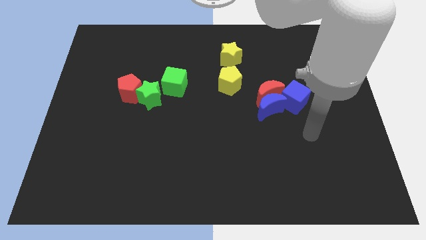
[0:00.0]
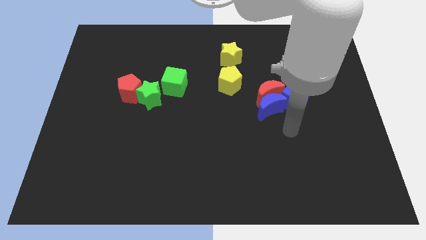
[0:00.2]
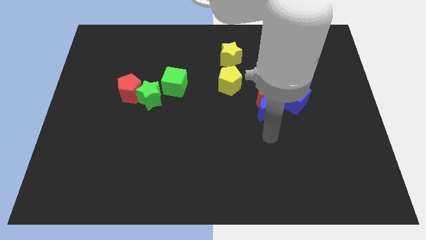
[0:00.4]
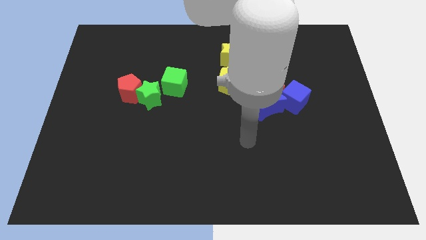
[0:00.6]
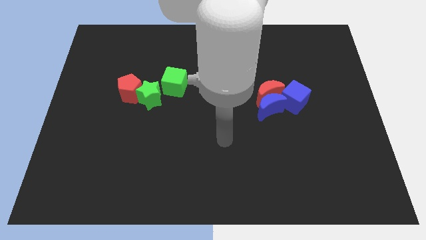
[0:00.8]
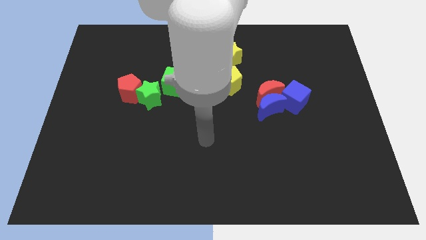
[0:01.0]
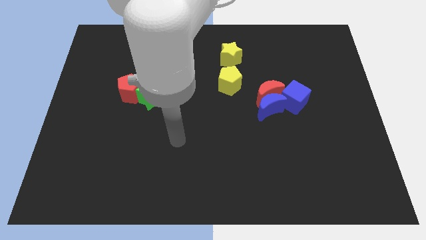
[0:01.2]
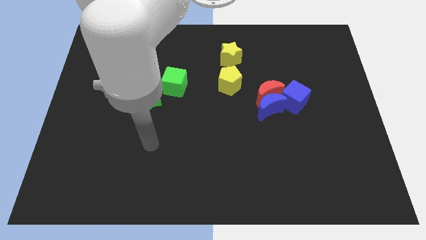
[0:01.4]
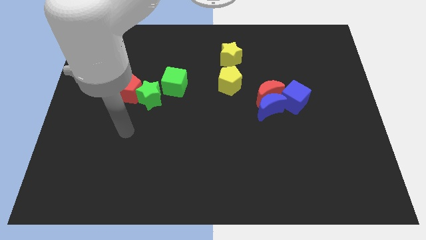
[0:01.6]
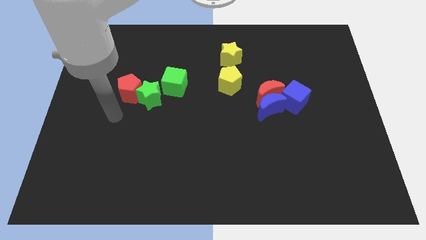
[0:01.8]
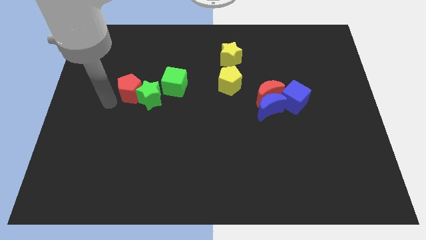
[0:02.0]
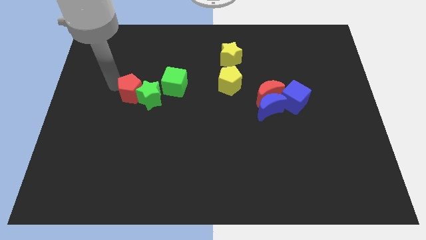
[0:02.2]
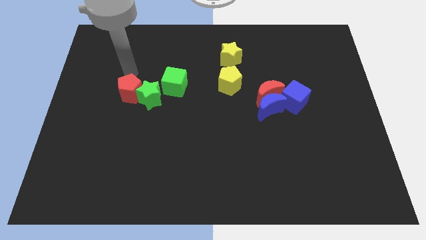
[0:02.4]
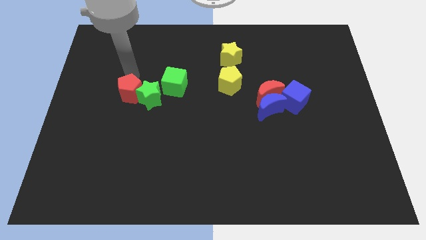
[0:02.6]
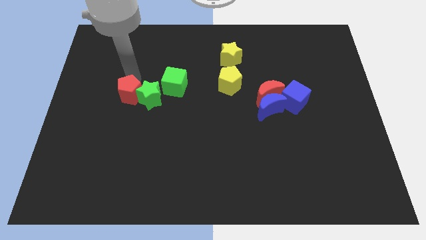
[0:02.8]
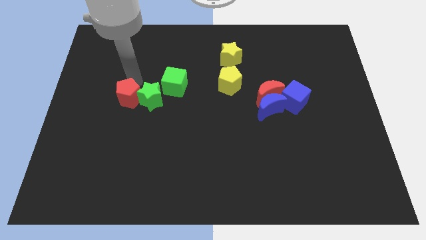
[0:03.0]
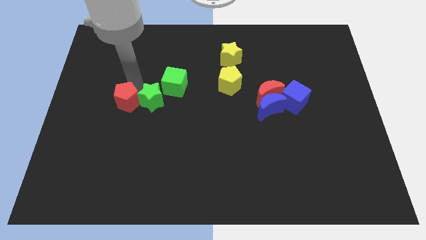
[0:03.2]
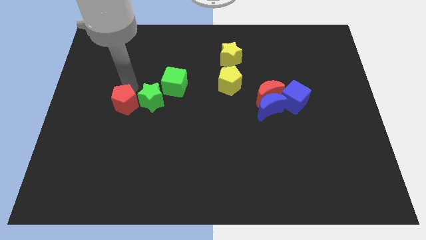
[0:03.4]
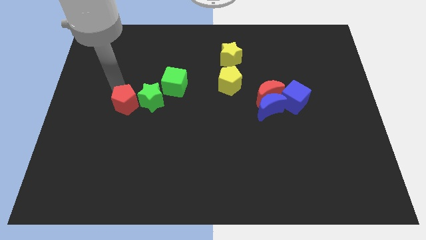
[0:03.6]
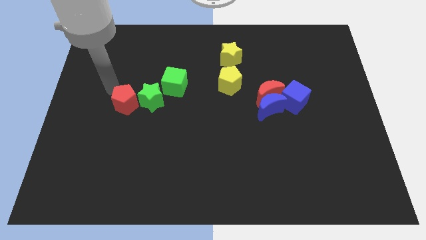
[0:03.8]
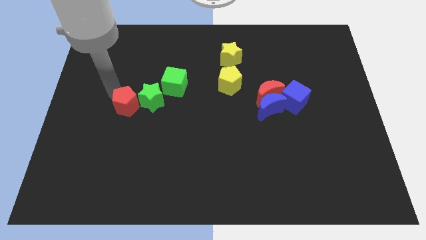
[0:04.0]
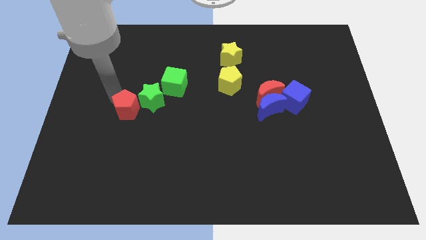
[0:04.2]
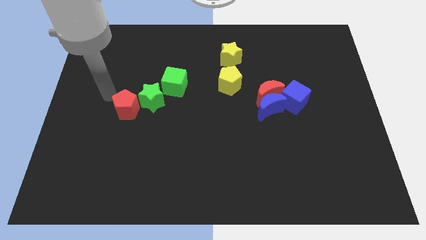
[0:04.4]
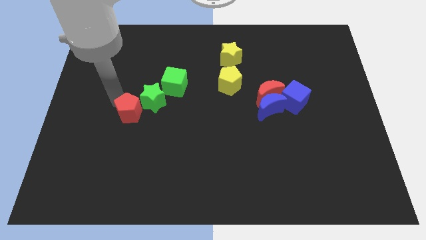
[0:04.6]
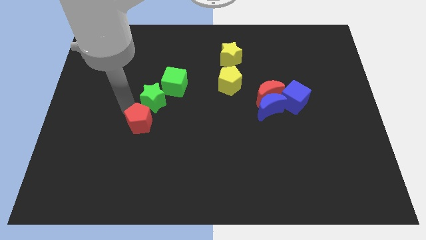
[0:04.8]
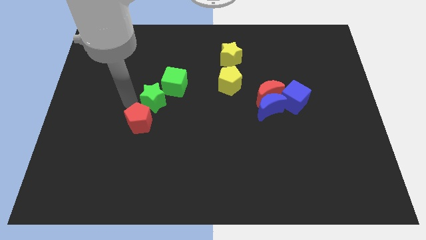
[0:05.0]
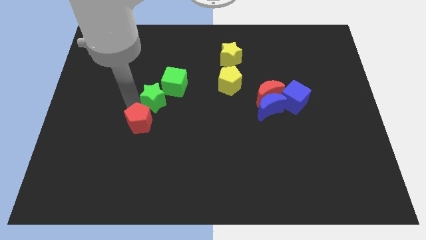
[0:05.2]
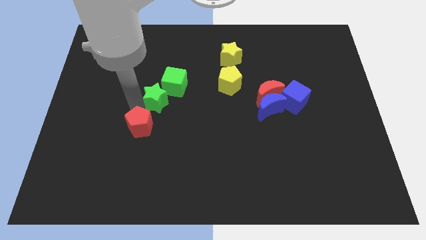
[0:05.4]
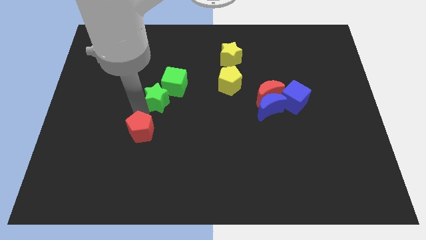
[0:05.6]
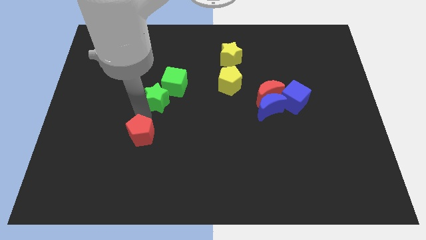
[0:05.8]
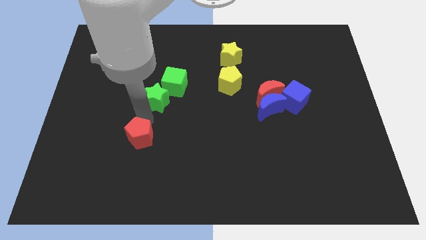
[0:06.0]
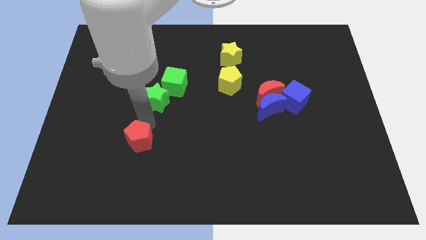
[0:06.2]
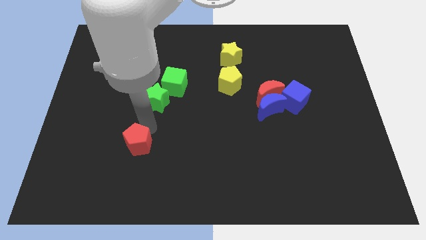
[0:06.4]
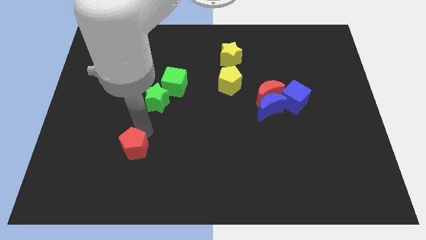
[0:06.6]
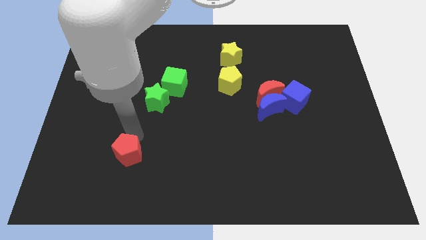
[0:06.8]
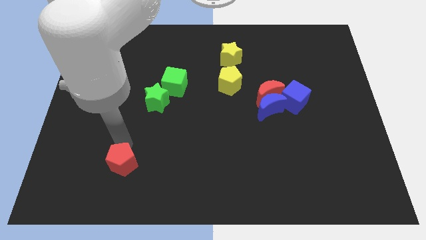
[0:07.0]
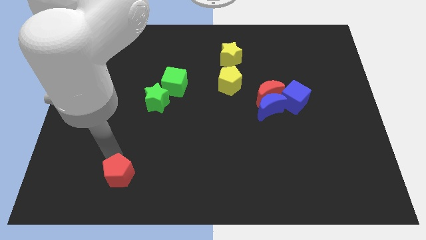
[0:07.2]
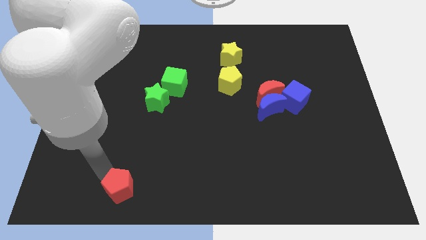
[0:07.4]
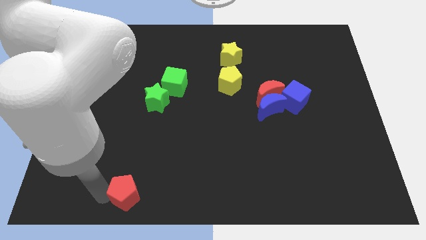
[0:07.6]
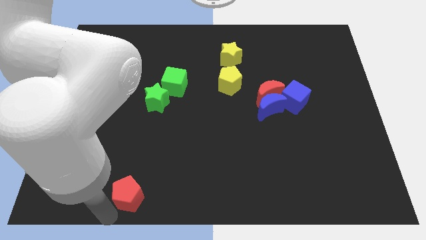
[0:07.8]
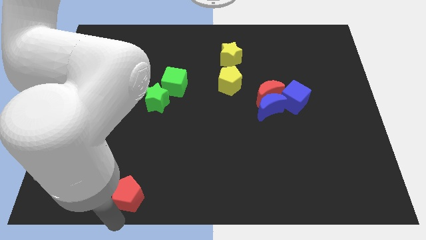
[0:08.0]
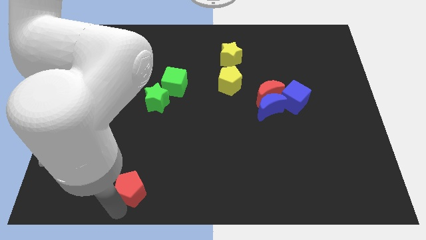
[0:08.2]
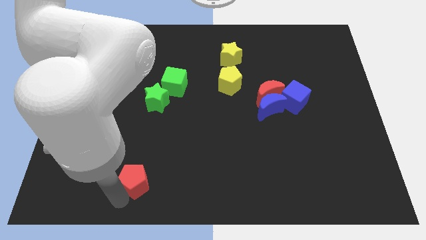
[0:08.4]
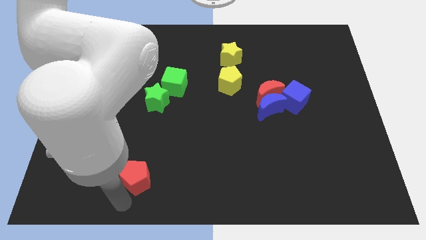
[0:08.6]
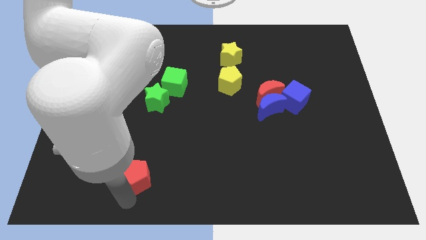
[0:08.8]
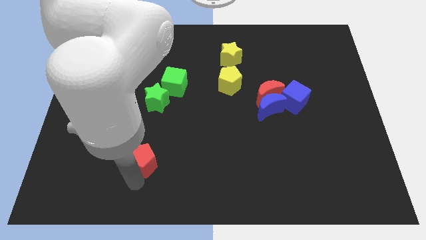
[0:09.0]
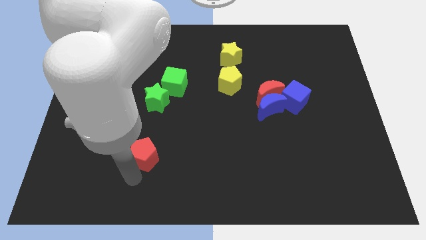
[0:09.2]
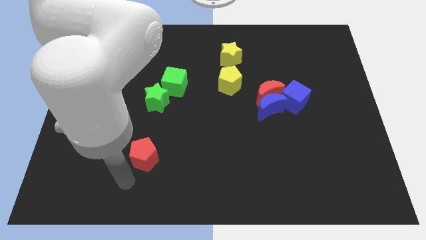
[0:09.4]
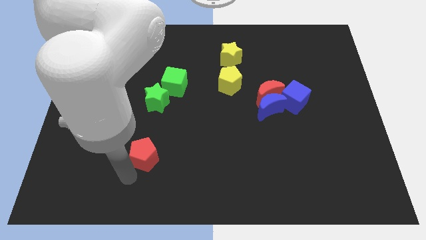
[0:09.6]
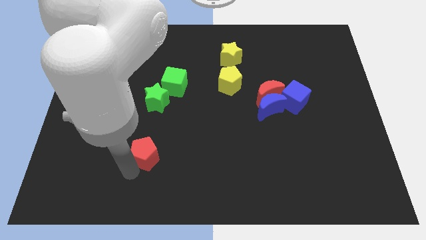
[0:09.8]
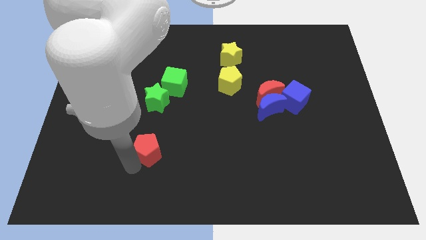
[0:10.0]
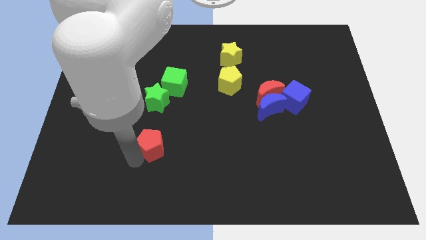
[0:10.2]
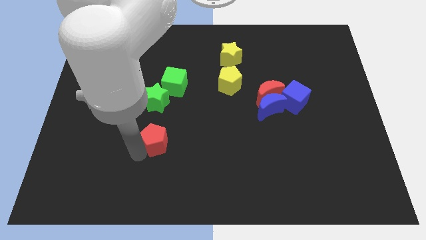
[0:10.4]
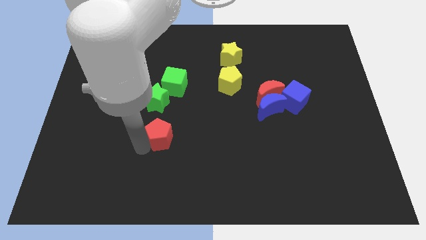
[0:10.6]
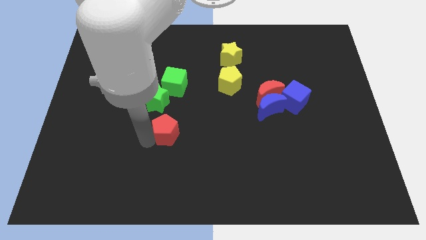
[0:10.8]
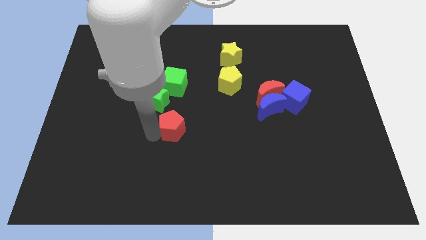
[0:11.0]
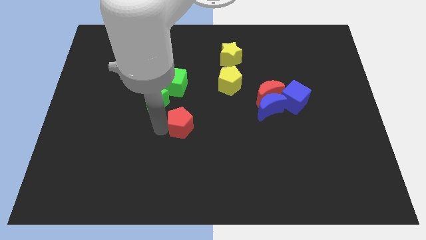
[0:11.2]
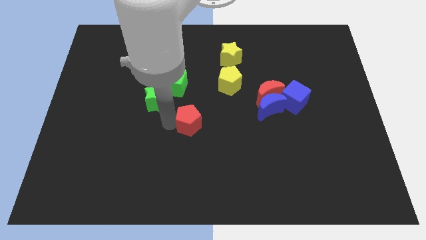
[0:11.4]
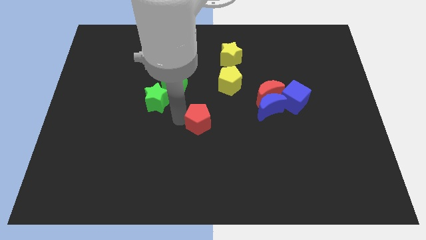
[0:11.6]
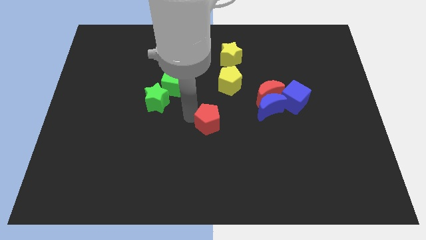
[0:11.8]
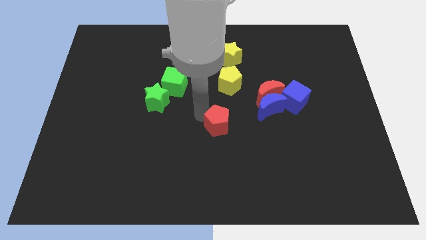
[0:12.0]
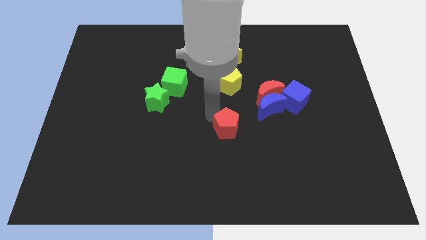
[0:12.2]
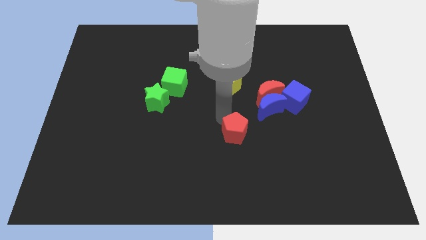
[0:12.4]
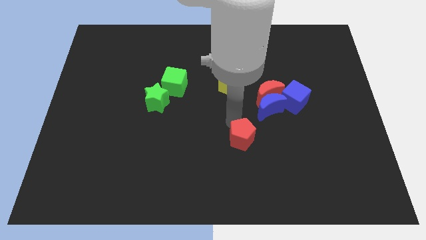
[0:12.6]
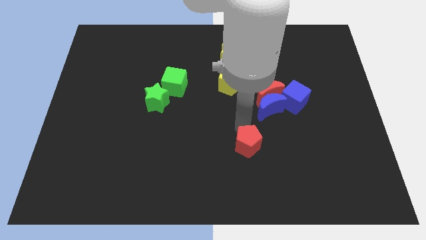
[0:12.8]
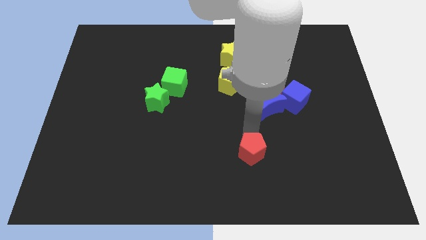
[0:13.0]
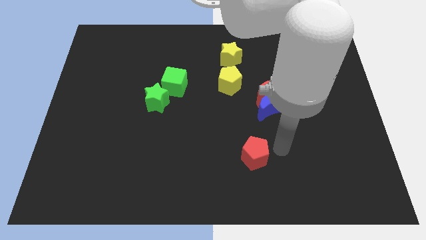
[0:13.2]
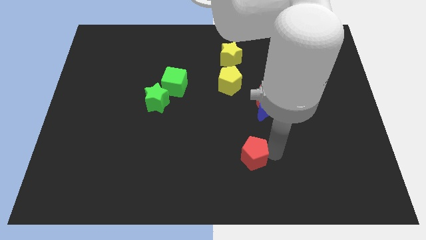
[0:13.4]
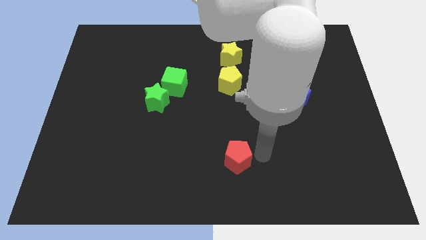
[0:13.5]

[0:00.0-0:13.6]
put the red pentagon to the bottom
